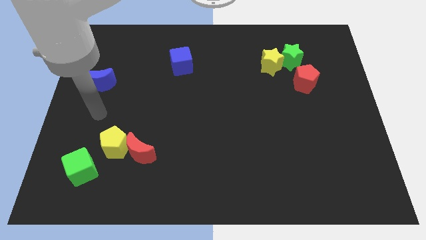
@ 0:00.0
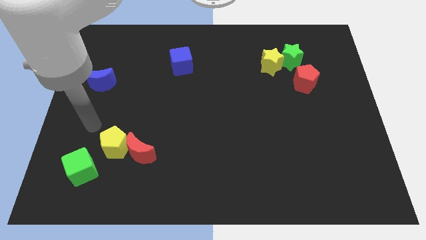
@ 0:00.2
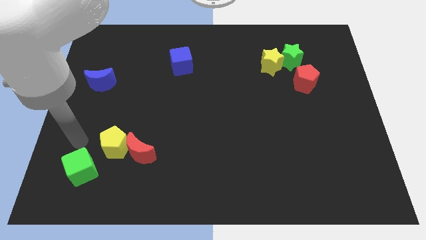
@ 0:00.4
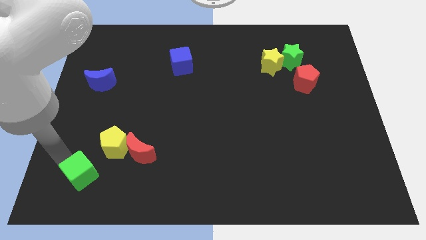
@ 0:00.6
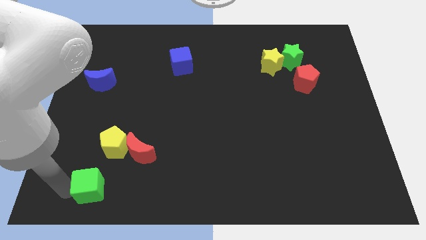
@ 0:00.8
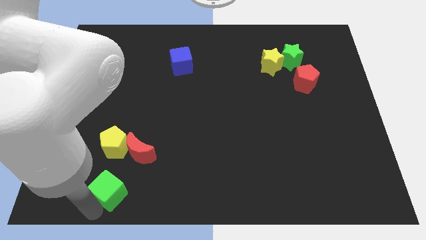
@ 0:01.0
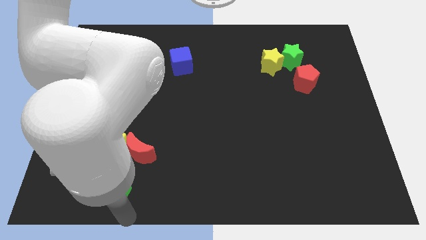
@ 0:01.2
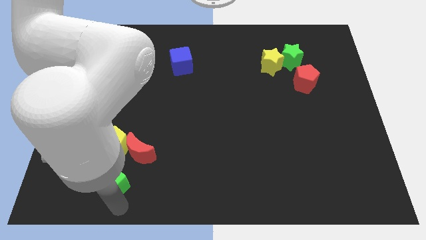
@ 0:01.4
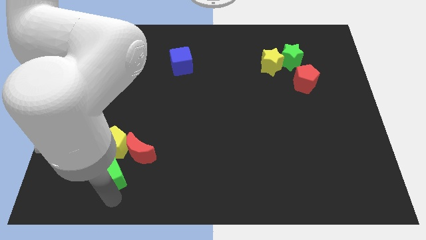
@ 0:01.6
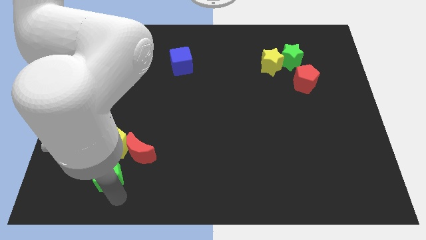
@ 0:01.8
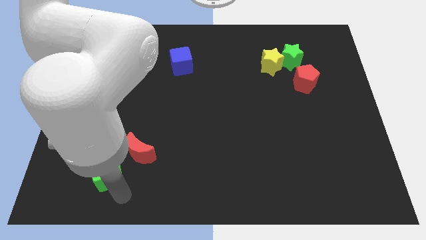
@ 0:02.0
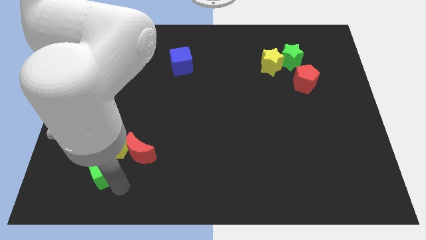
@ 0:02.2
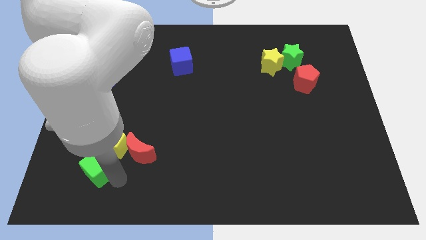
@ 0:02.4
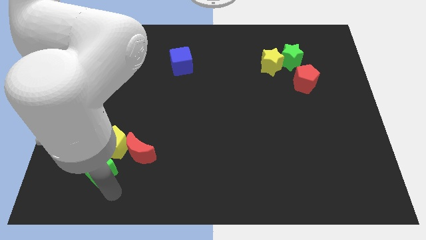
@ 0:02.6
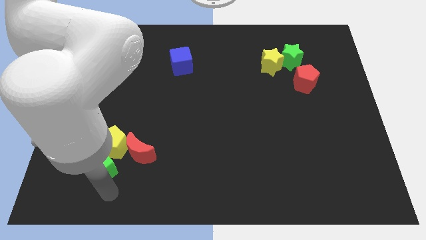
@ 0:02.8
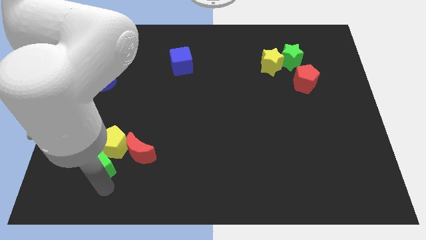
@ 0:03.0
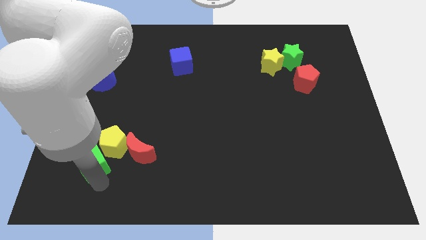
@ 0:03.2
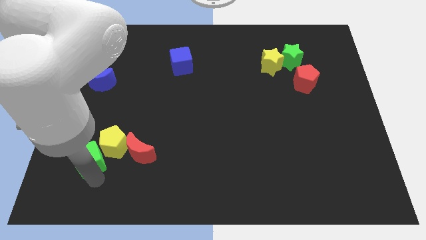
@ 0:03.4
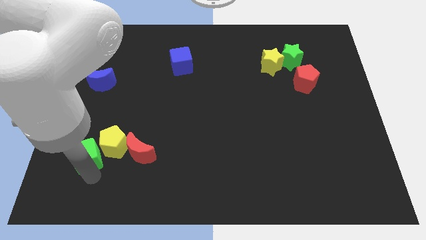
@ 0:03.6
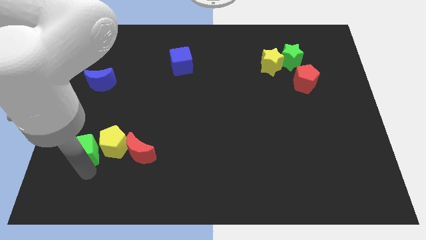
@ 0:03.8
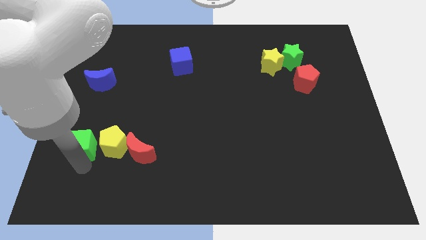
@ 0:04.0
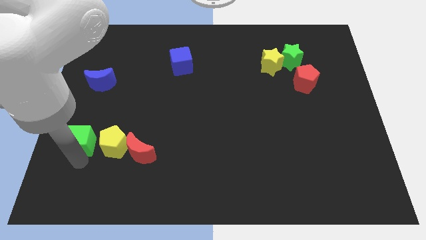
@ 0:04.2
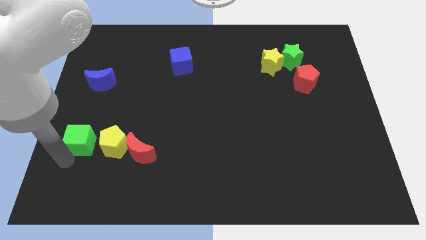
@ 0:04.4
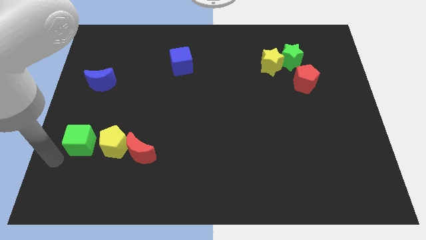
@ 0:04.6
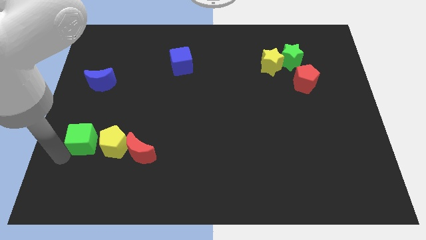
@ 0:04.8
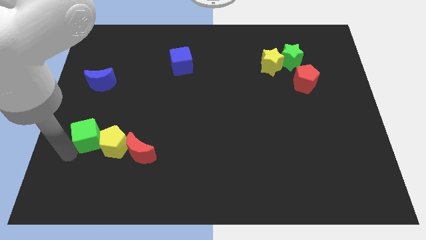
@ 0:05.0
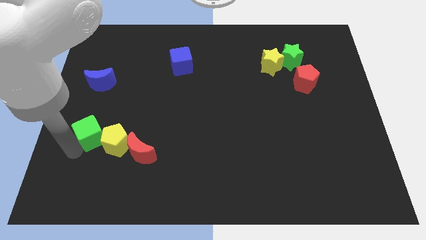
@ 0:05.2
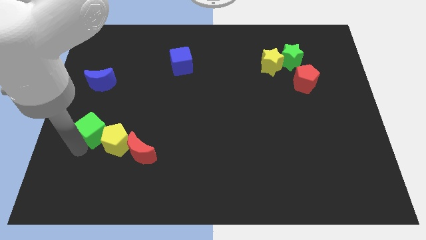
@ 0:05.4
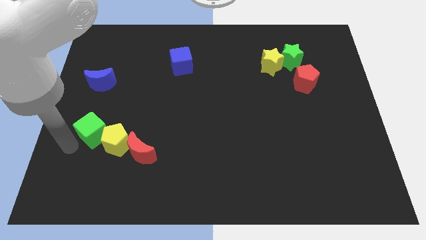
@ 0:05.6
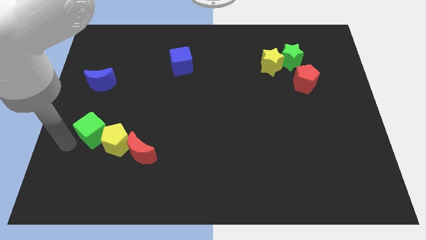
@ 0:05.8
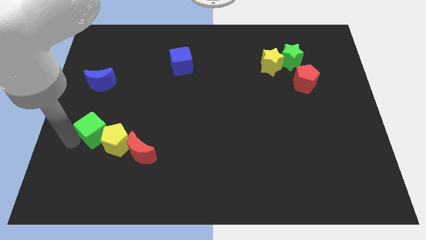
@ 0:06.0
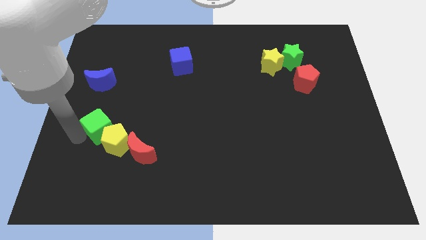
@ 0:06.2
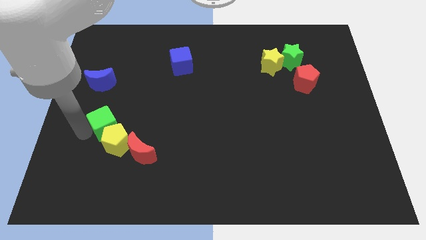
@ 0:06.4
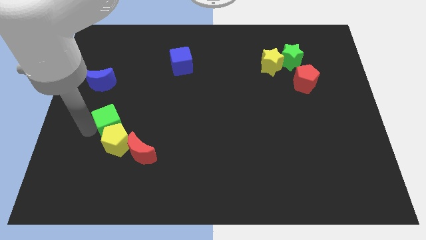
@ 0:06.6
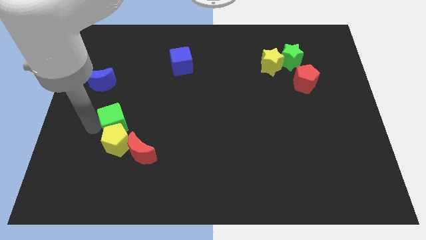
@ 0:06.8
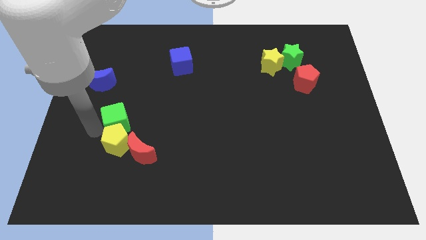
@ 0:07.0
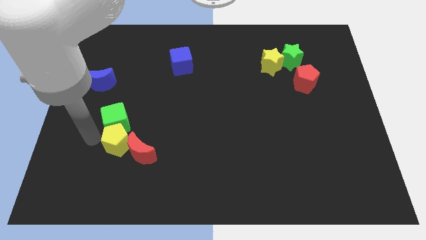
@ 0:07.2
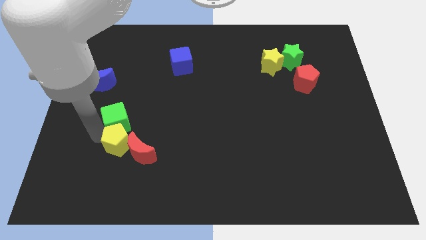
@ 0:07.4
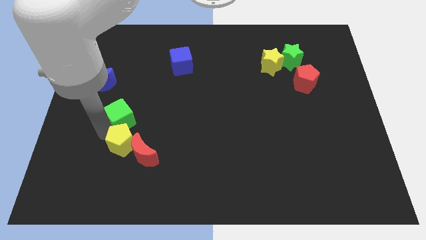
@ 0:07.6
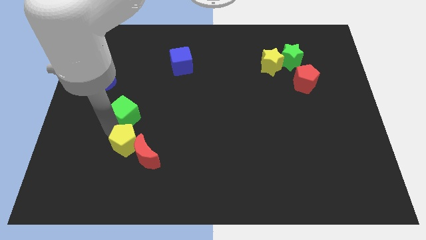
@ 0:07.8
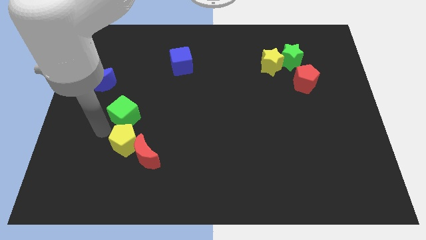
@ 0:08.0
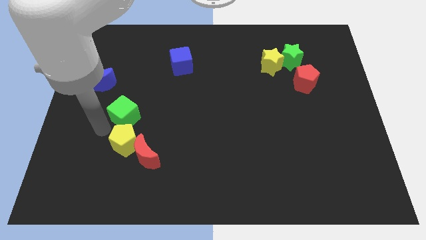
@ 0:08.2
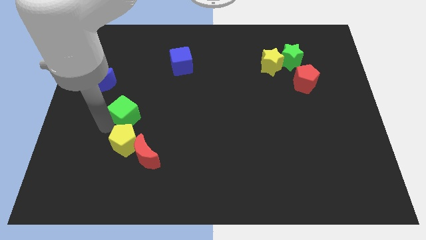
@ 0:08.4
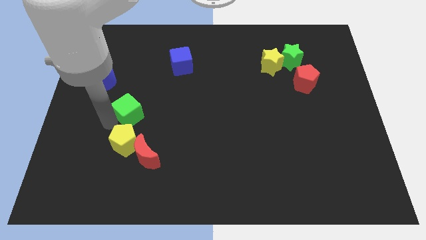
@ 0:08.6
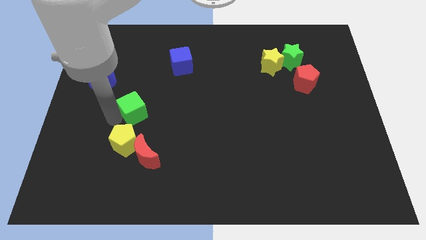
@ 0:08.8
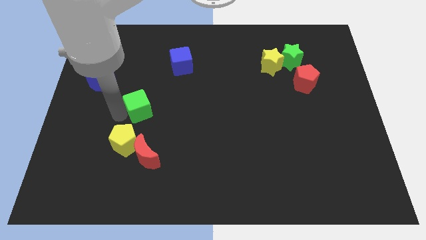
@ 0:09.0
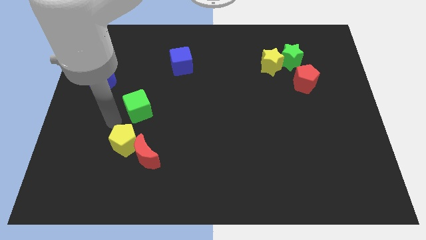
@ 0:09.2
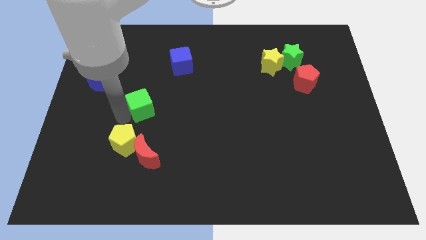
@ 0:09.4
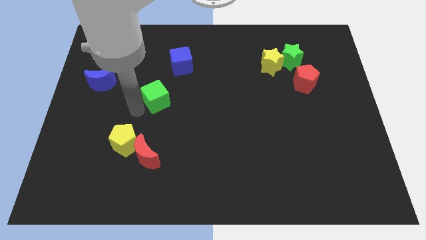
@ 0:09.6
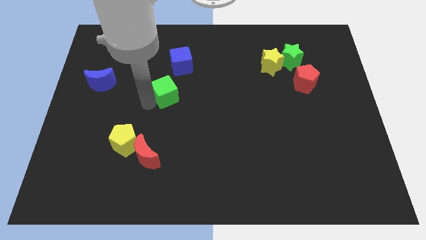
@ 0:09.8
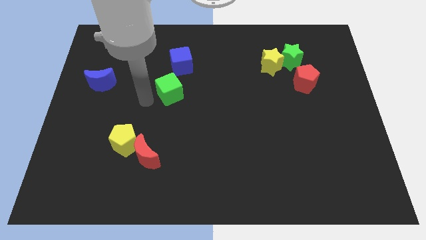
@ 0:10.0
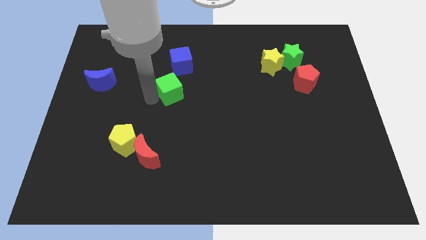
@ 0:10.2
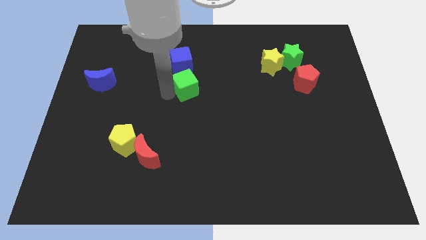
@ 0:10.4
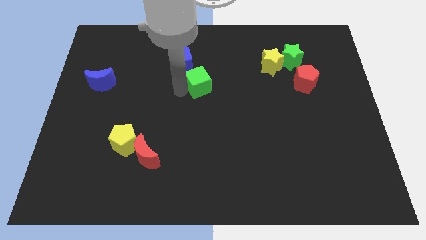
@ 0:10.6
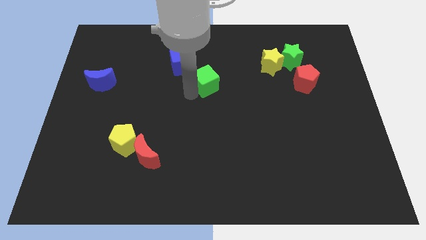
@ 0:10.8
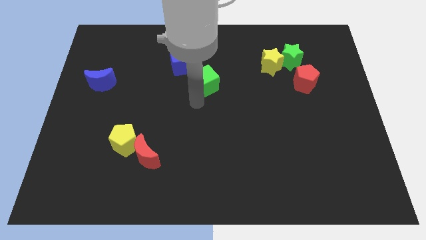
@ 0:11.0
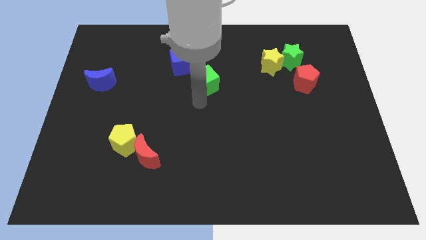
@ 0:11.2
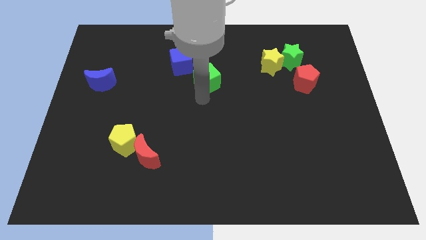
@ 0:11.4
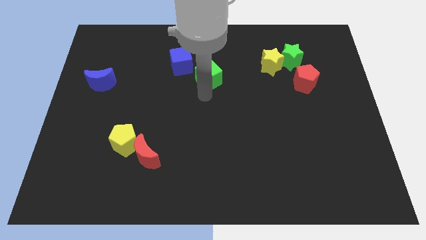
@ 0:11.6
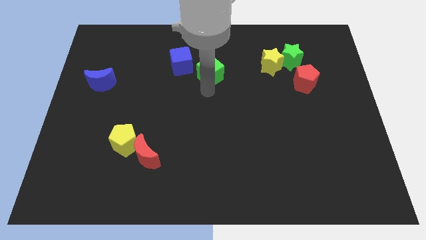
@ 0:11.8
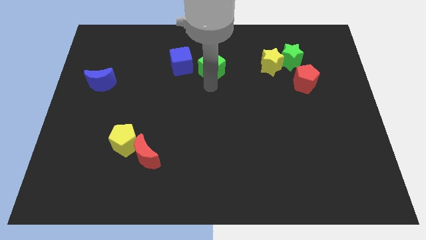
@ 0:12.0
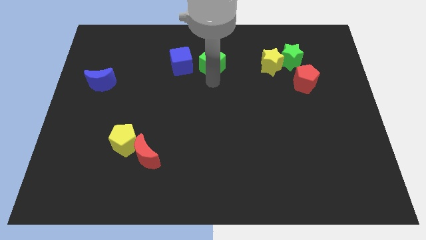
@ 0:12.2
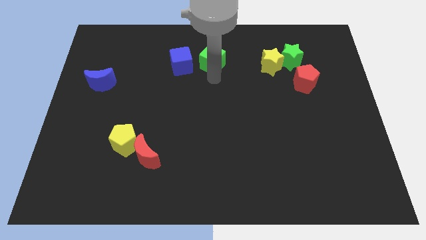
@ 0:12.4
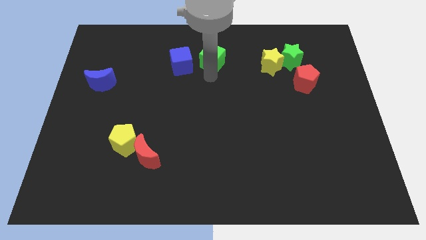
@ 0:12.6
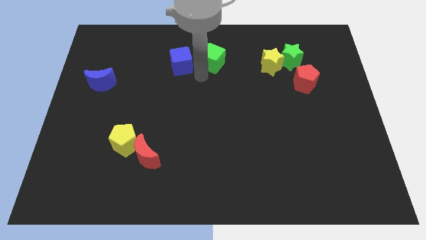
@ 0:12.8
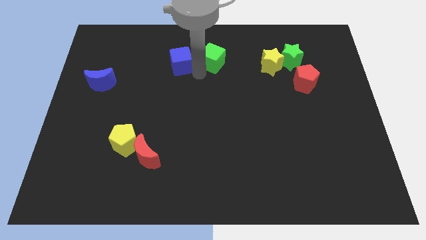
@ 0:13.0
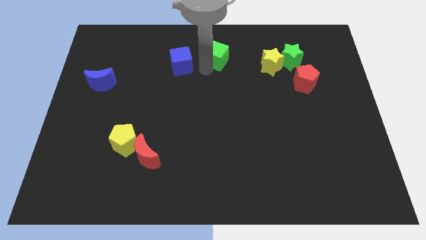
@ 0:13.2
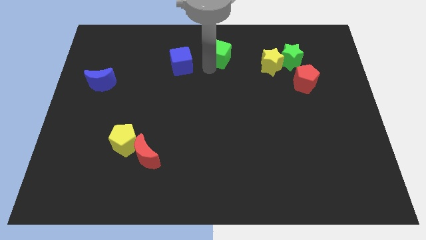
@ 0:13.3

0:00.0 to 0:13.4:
move the green cube to the top
